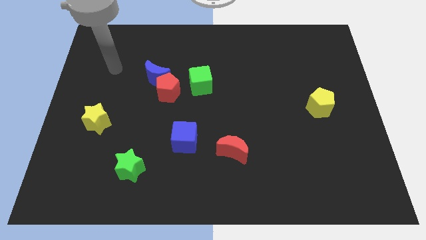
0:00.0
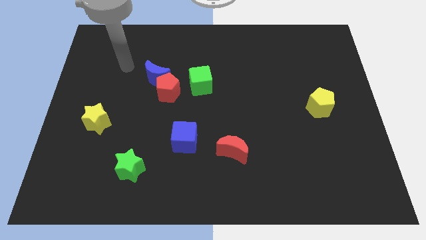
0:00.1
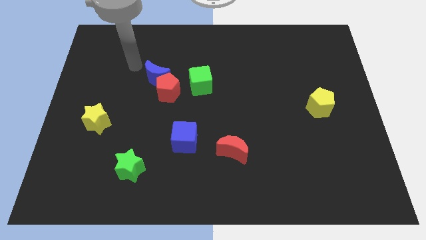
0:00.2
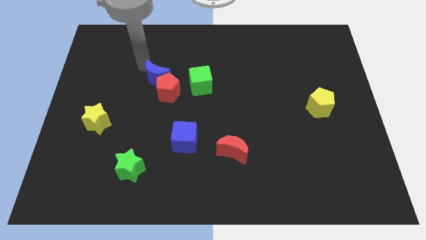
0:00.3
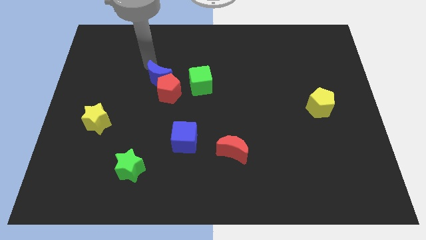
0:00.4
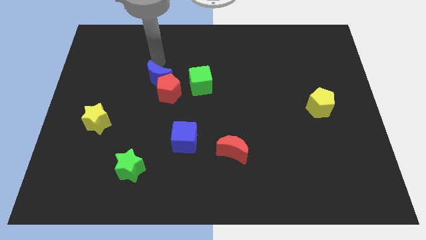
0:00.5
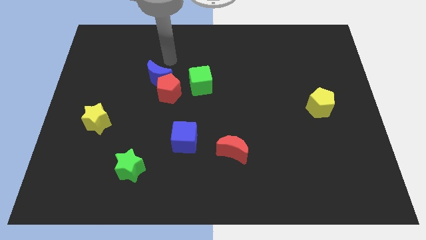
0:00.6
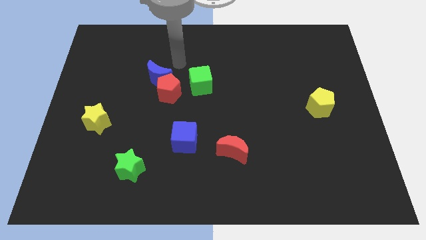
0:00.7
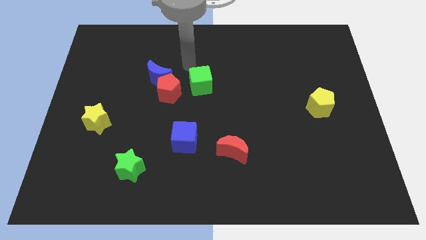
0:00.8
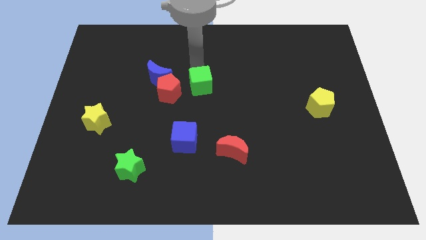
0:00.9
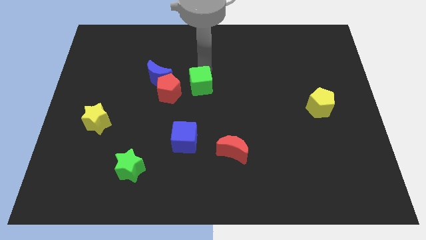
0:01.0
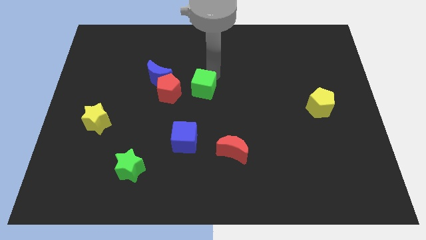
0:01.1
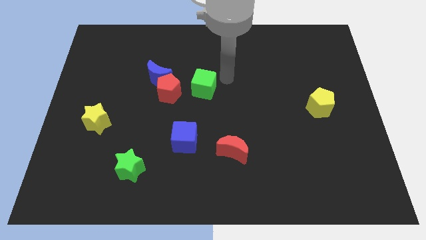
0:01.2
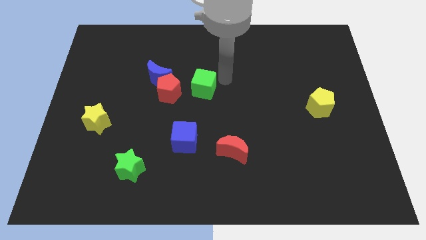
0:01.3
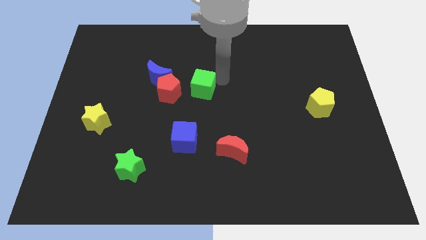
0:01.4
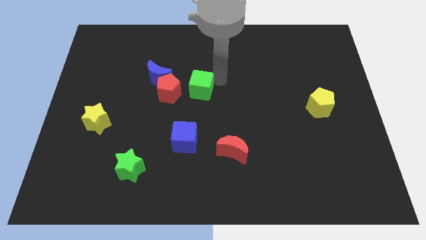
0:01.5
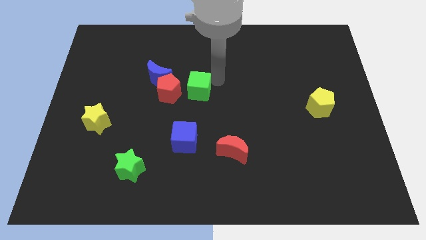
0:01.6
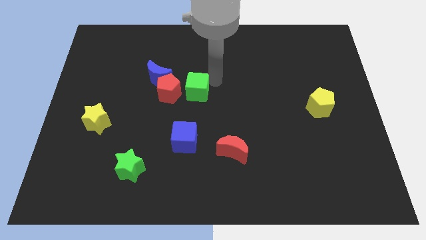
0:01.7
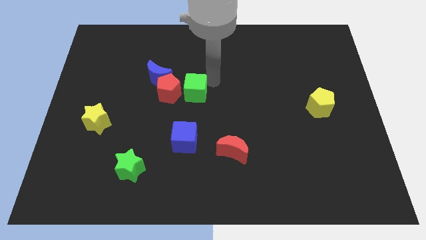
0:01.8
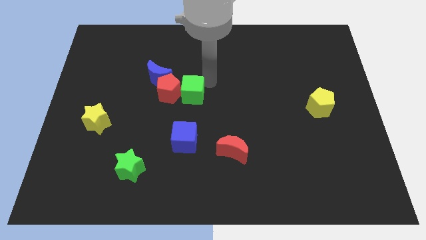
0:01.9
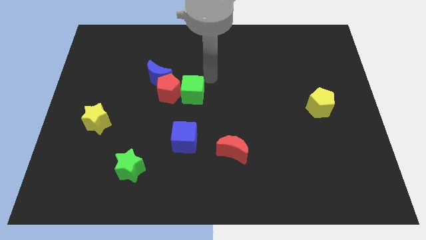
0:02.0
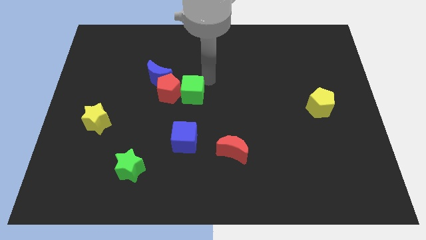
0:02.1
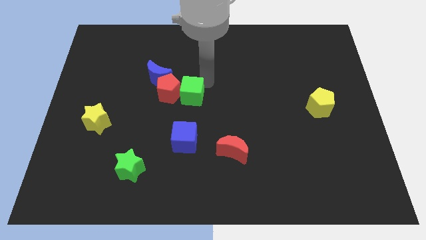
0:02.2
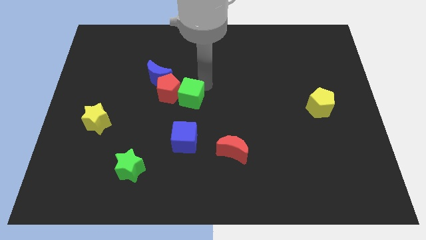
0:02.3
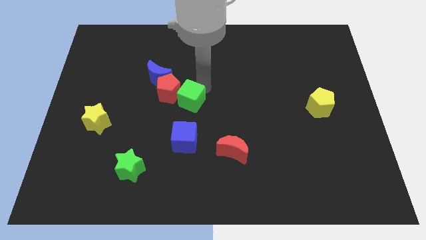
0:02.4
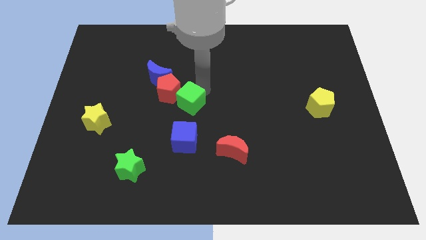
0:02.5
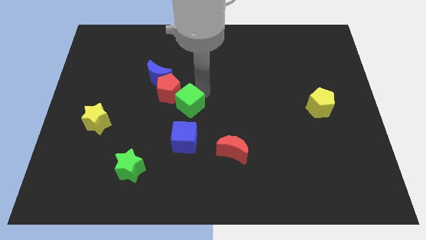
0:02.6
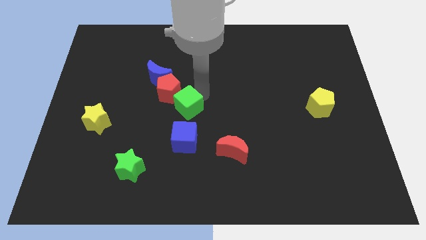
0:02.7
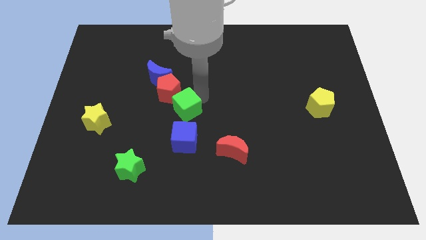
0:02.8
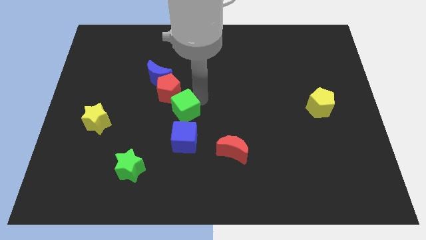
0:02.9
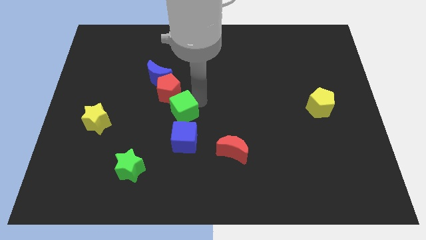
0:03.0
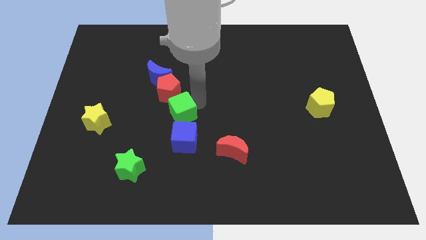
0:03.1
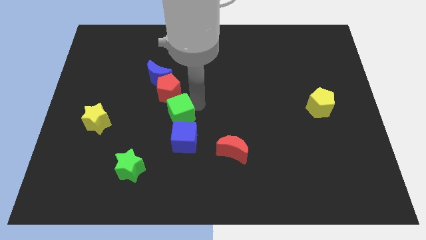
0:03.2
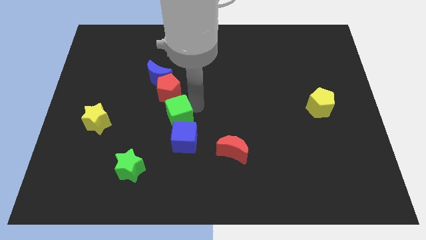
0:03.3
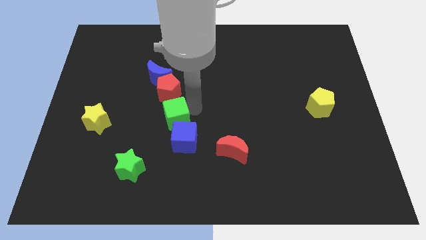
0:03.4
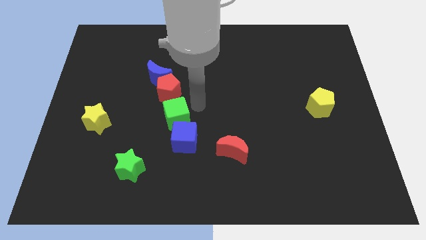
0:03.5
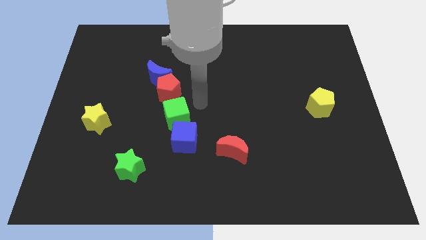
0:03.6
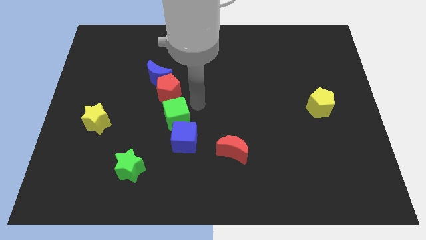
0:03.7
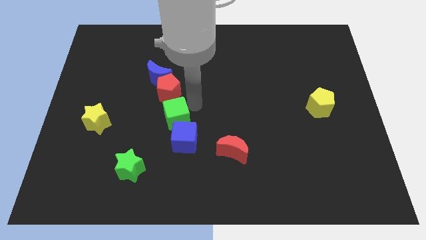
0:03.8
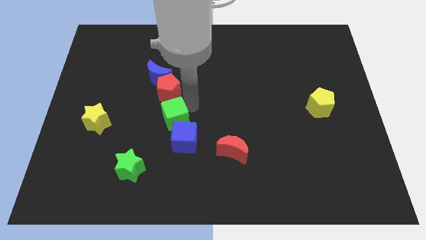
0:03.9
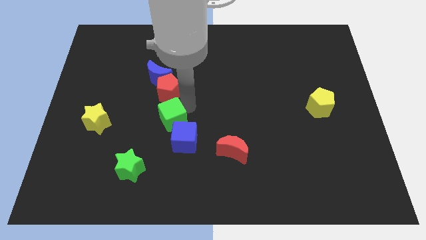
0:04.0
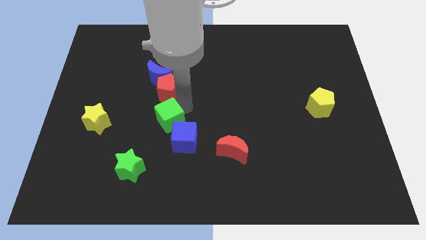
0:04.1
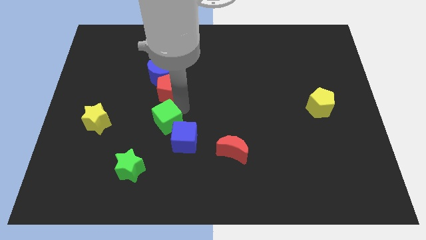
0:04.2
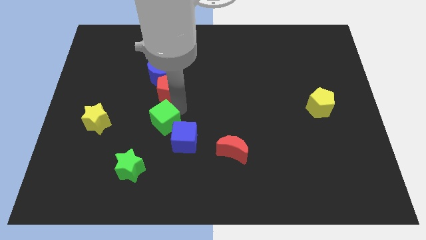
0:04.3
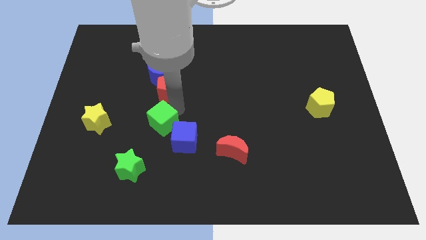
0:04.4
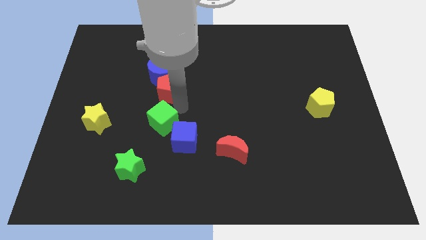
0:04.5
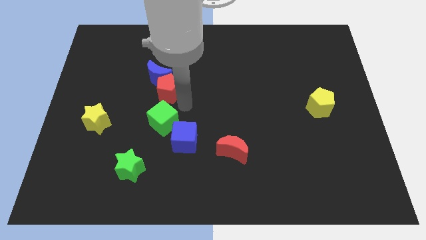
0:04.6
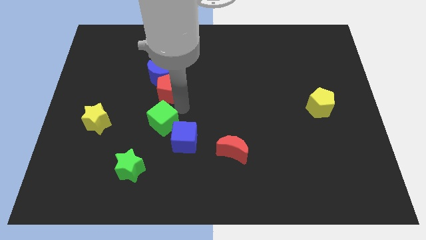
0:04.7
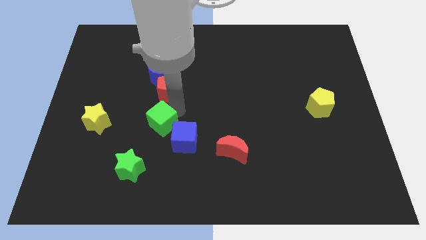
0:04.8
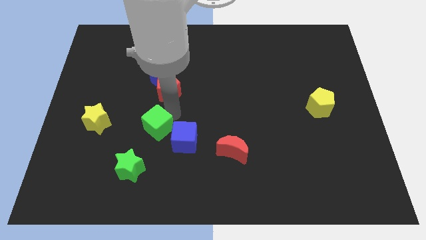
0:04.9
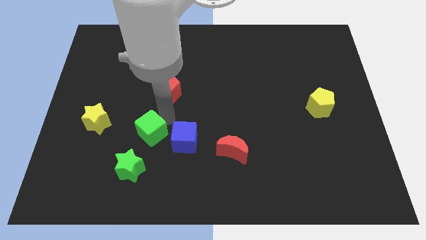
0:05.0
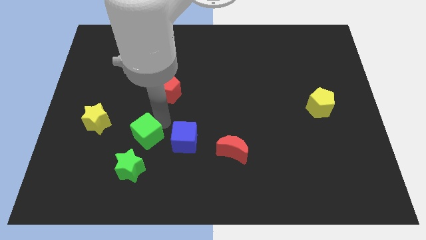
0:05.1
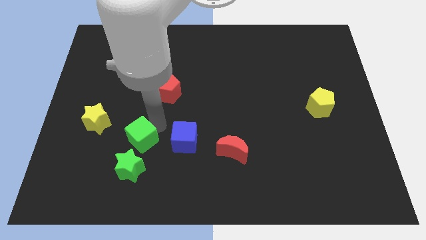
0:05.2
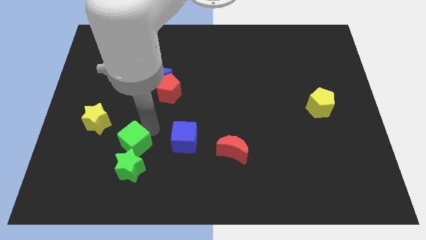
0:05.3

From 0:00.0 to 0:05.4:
push the green cube close to the green star

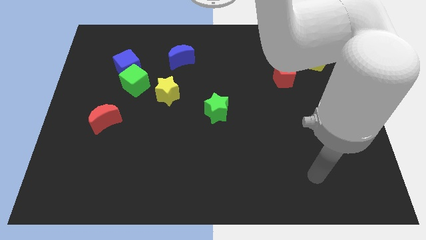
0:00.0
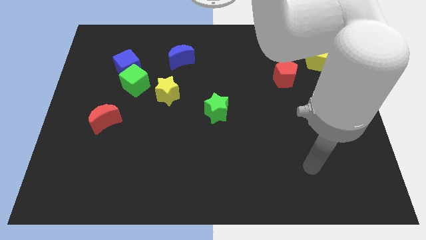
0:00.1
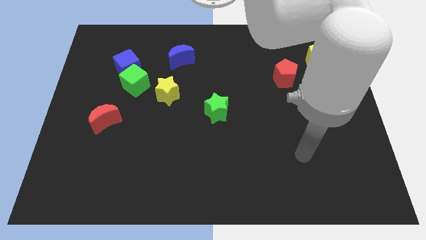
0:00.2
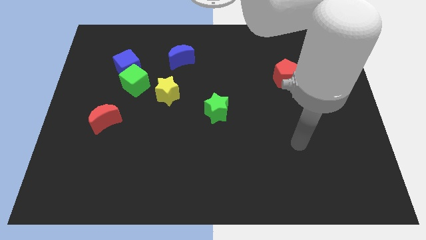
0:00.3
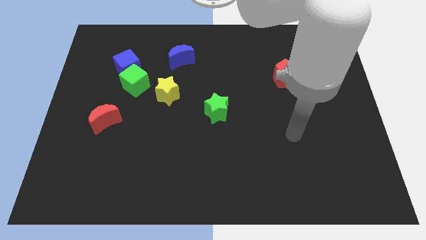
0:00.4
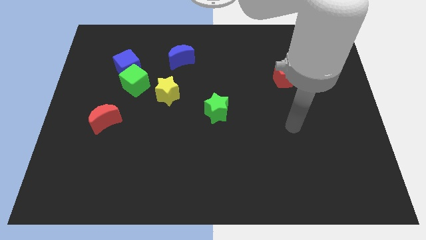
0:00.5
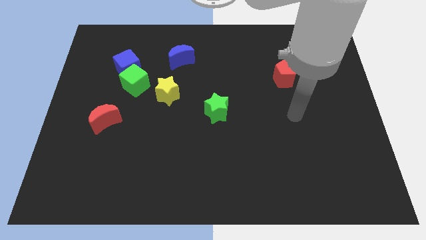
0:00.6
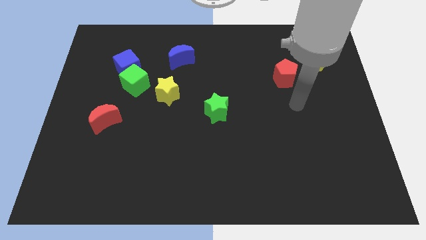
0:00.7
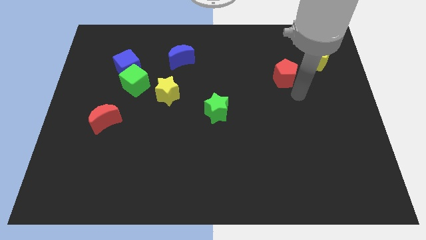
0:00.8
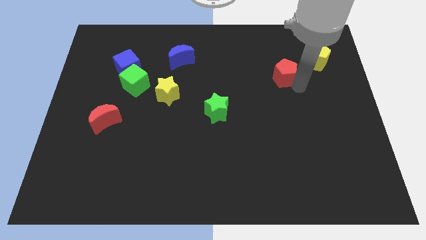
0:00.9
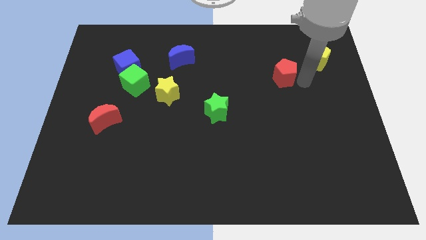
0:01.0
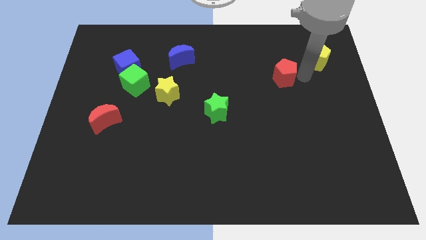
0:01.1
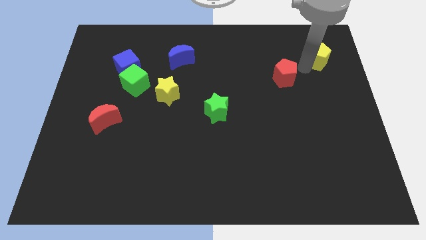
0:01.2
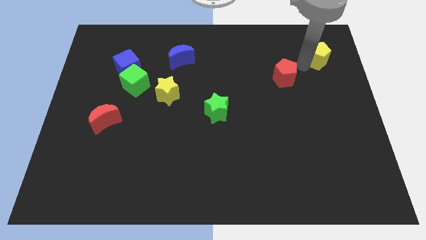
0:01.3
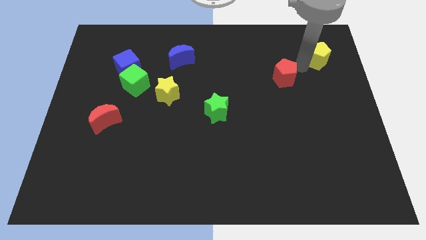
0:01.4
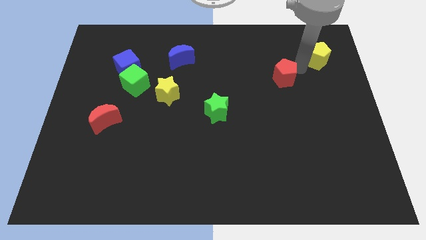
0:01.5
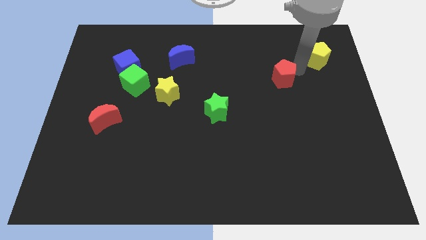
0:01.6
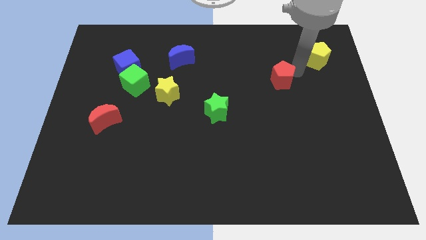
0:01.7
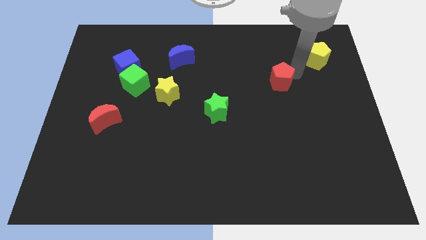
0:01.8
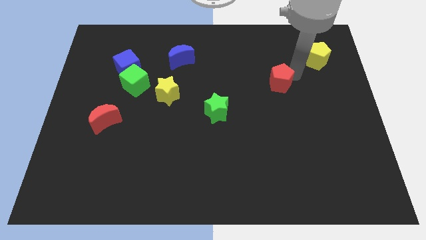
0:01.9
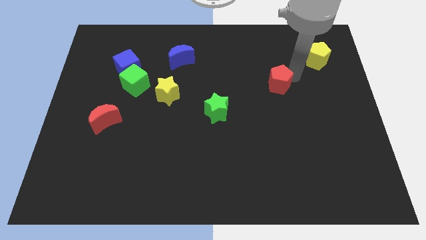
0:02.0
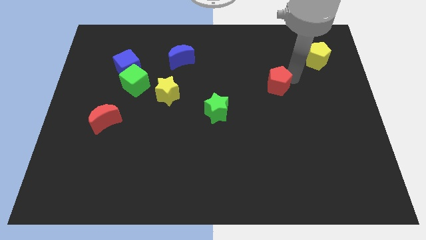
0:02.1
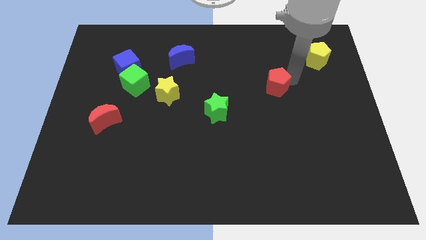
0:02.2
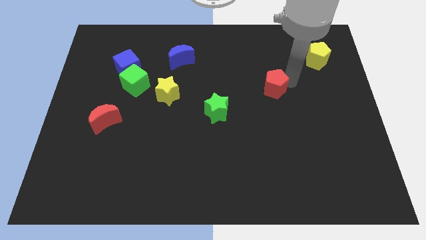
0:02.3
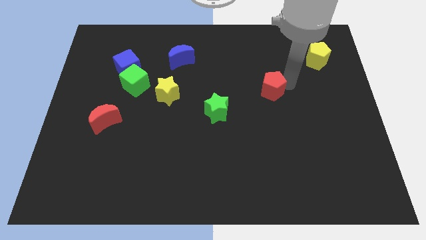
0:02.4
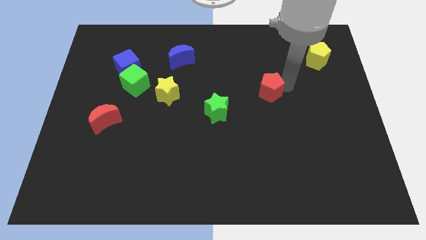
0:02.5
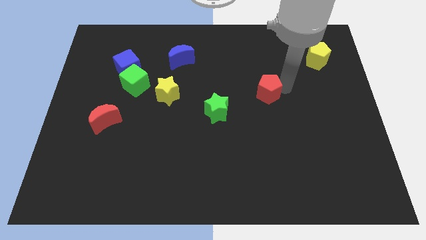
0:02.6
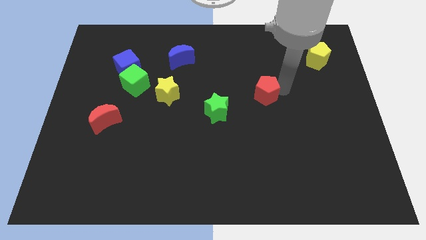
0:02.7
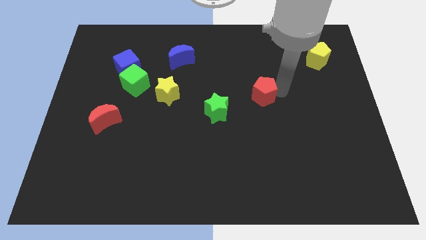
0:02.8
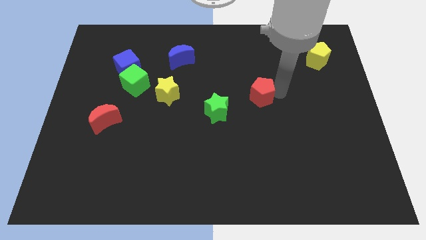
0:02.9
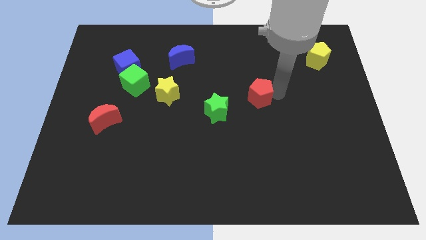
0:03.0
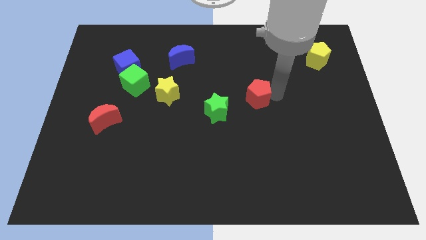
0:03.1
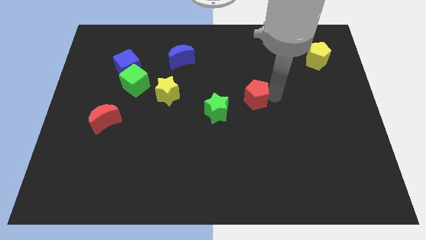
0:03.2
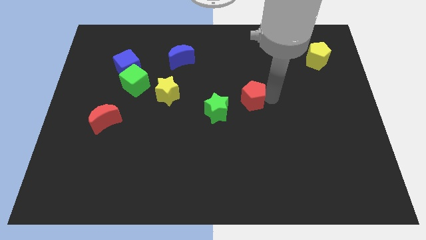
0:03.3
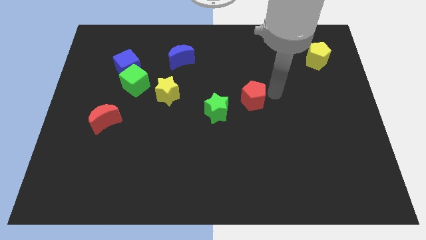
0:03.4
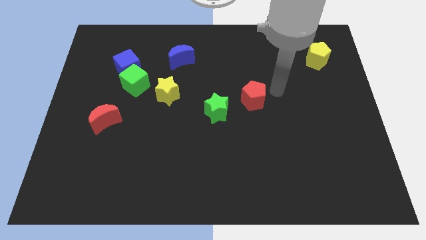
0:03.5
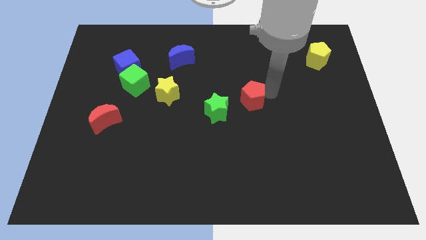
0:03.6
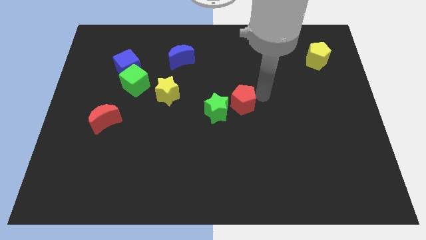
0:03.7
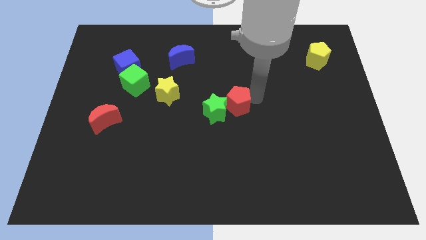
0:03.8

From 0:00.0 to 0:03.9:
slide the red pentagon towards the green star
